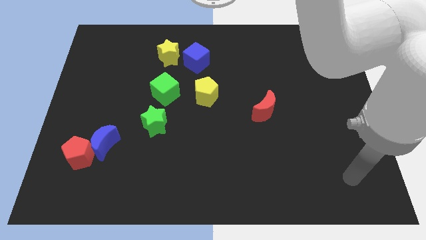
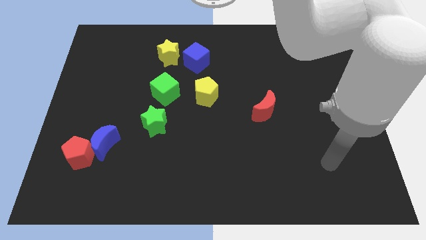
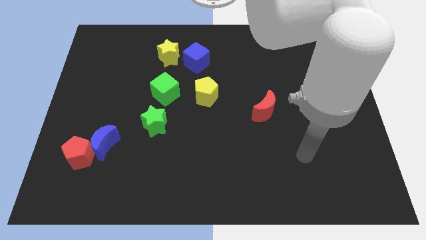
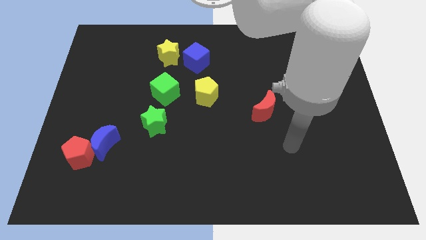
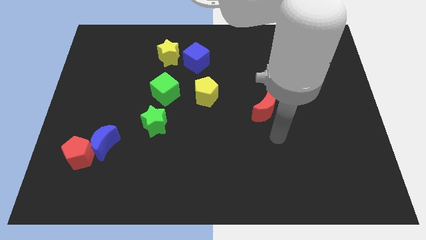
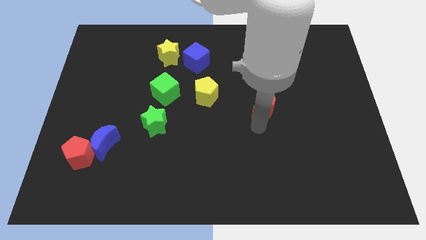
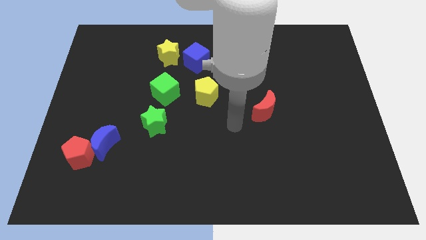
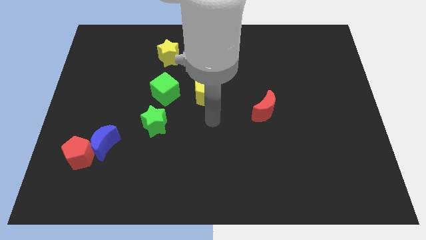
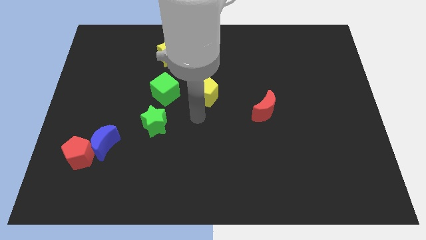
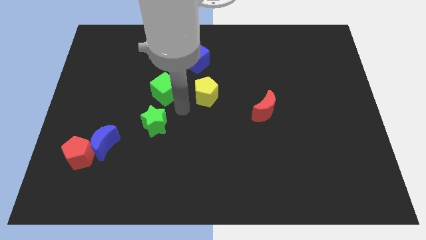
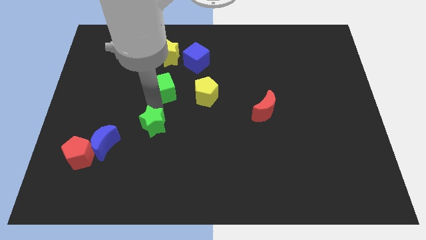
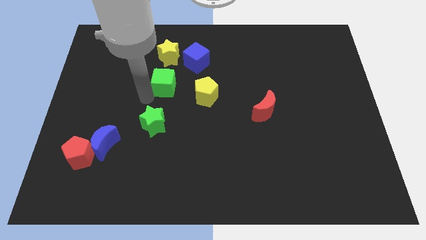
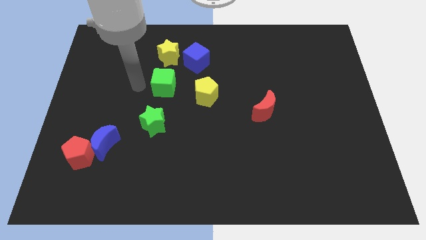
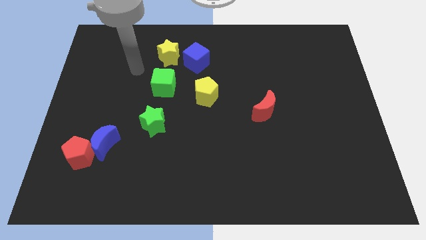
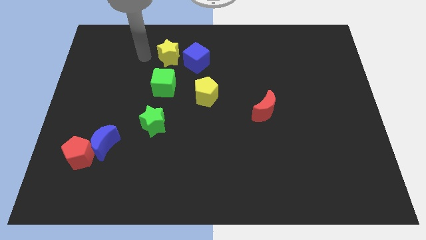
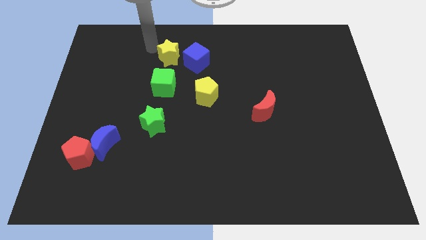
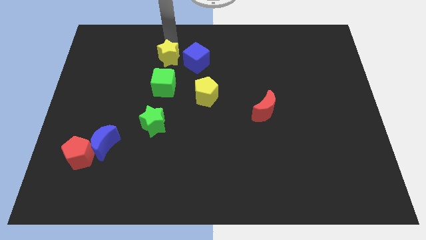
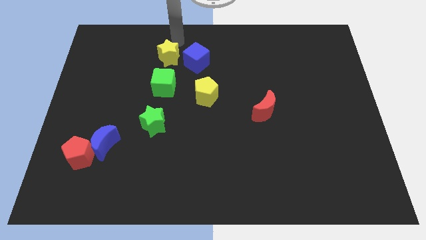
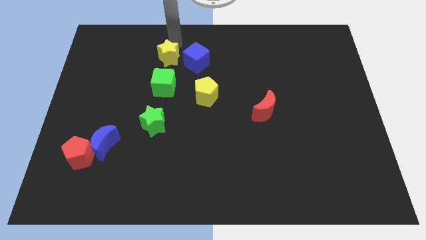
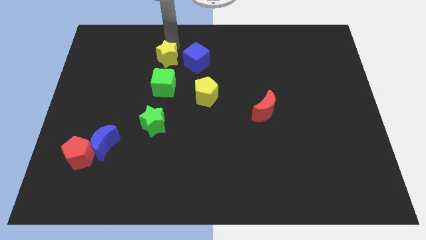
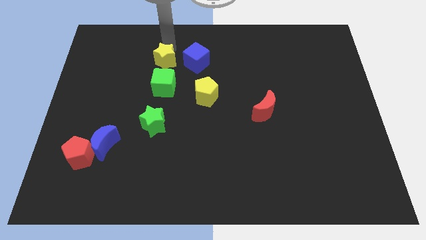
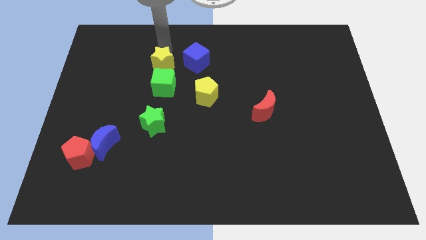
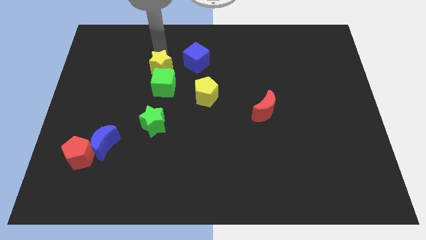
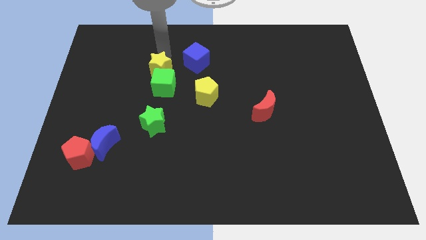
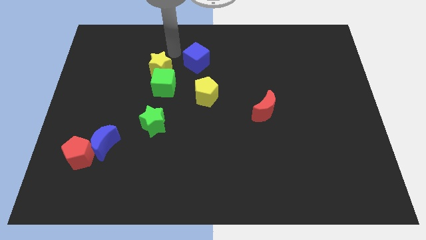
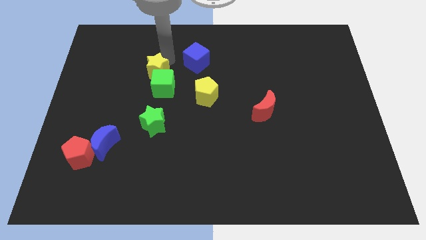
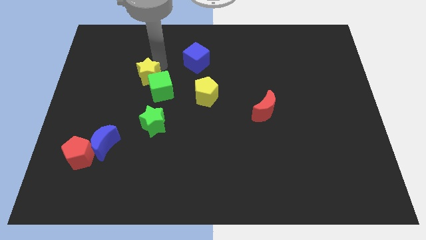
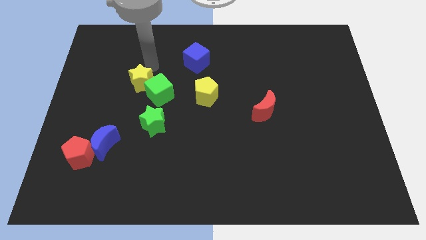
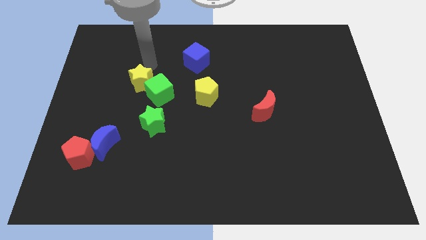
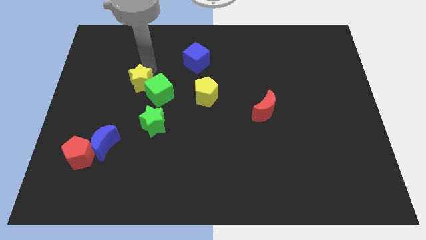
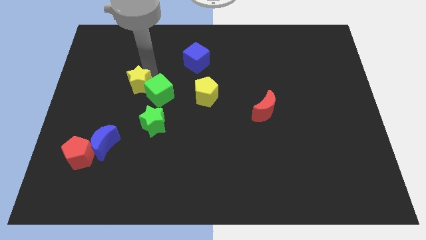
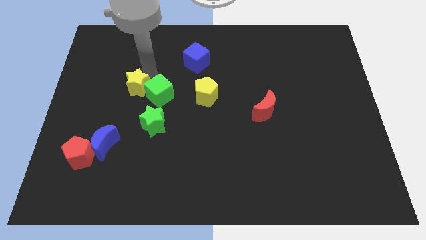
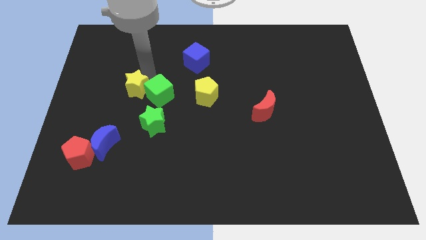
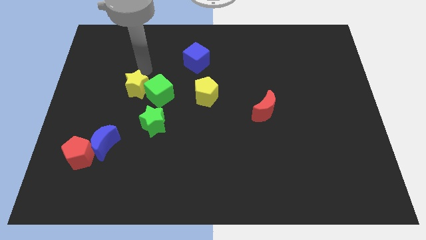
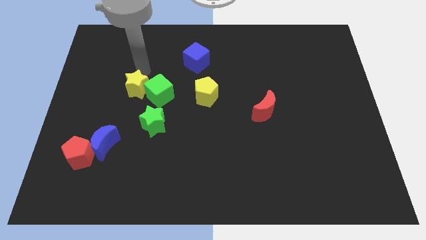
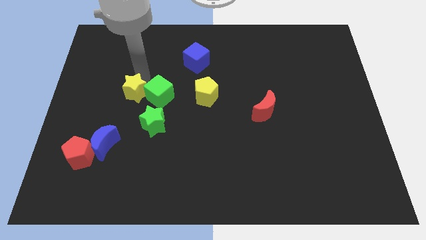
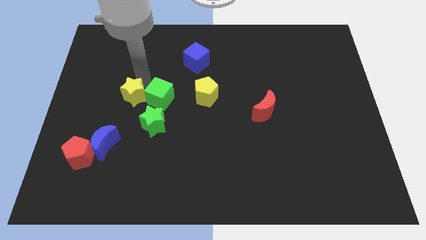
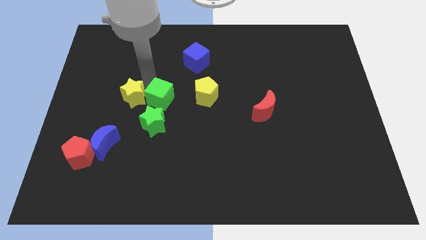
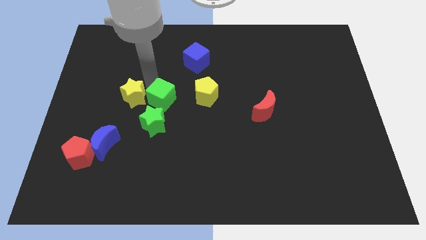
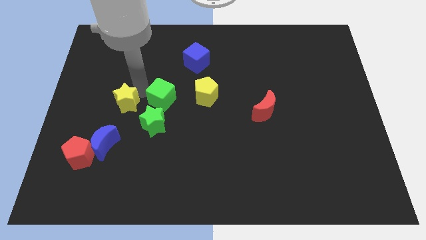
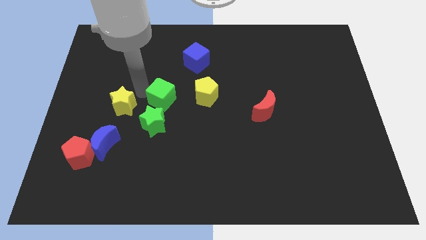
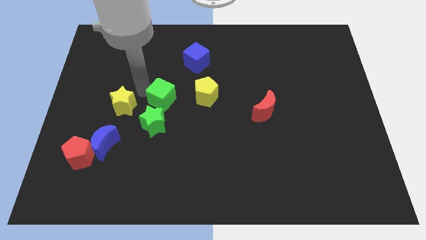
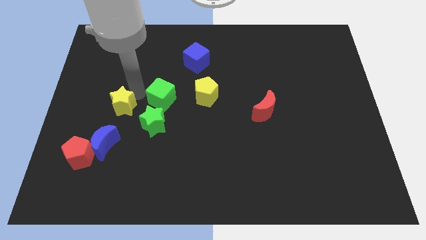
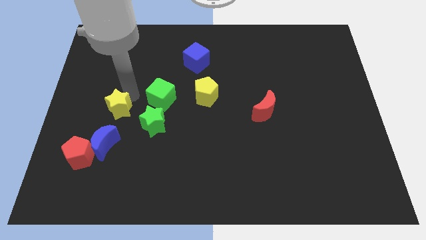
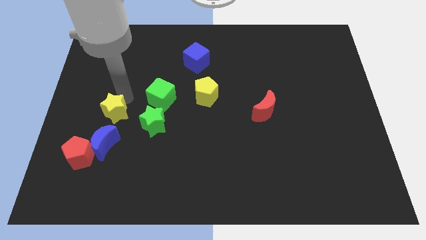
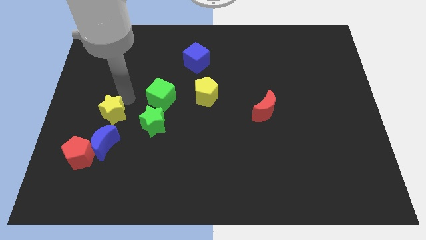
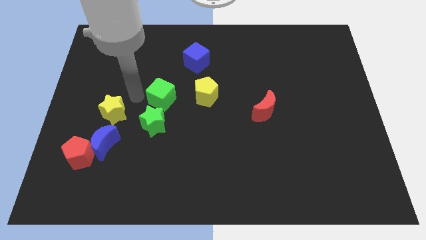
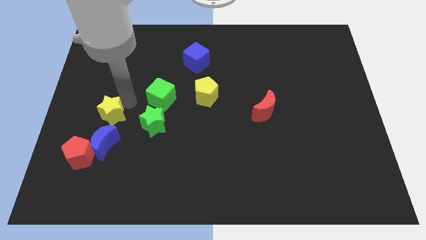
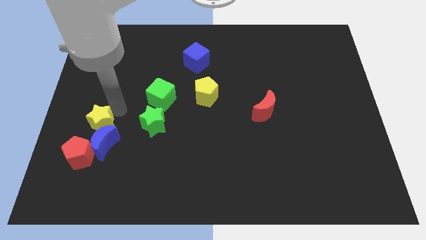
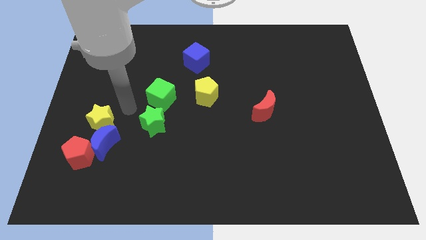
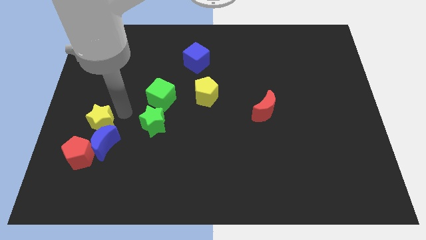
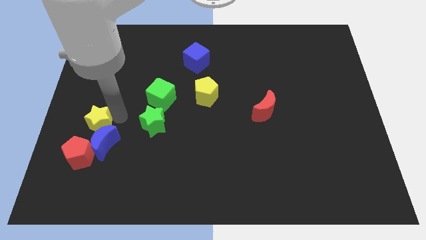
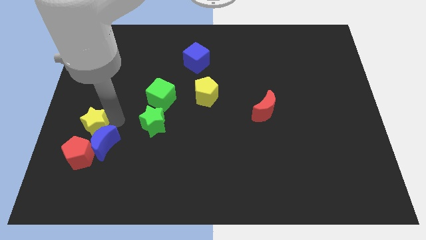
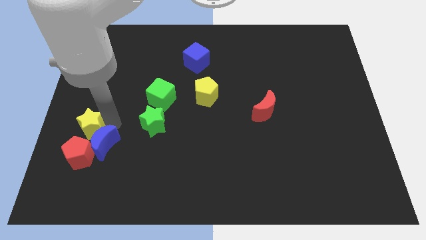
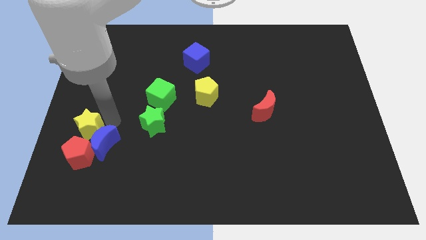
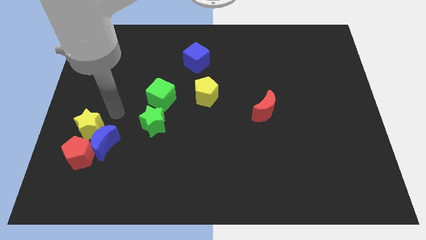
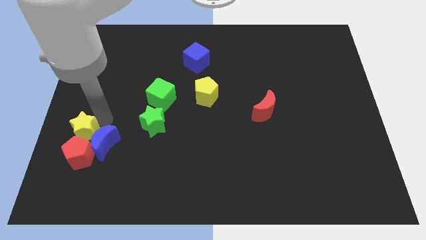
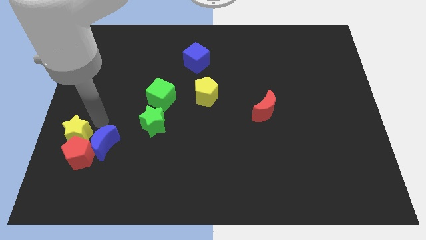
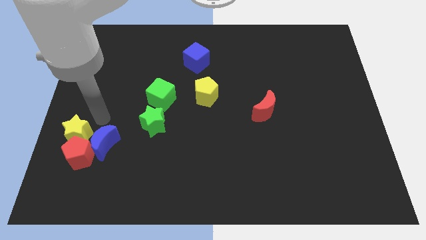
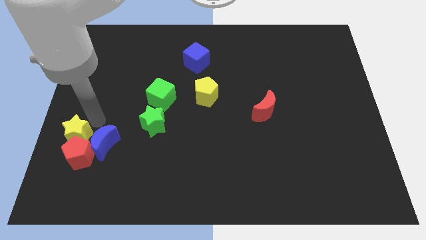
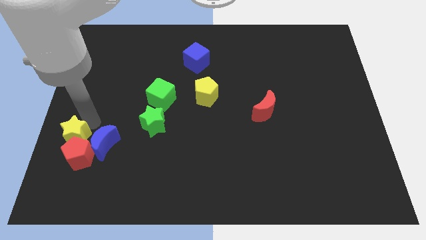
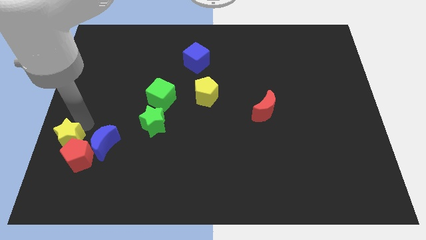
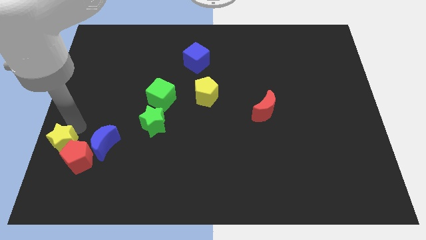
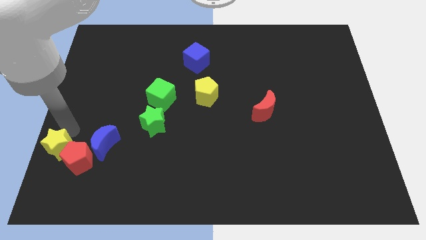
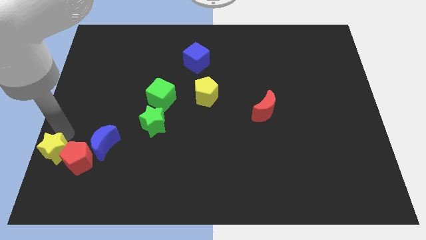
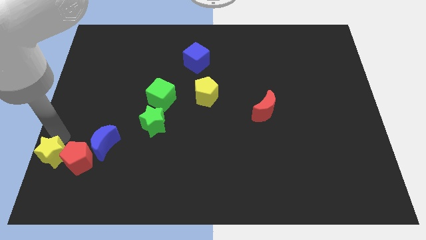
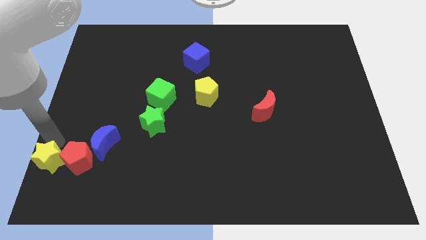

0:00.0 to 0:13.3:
move the yellow star to the bottom left corner
